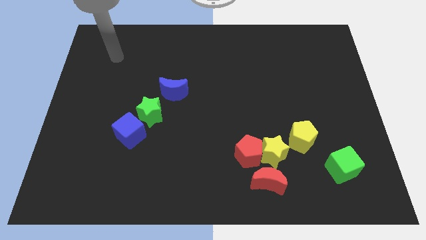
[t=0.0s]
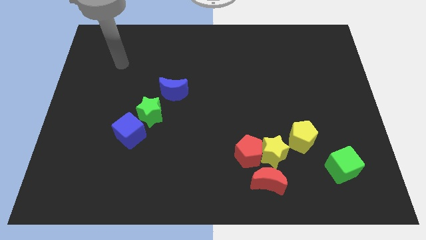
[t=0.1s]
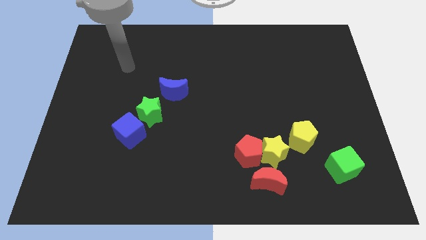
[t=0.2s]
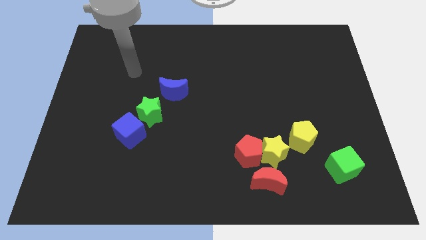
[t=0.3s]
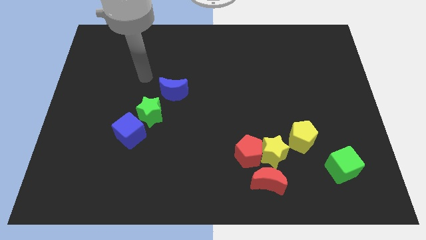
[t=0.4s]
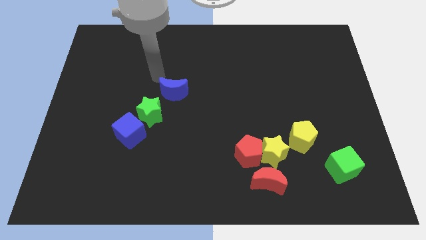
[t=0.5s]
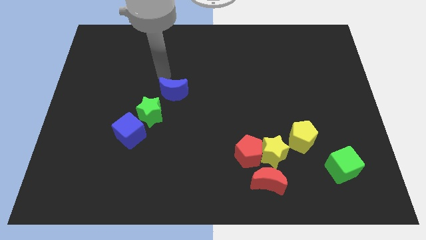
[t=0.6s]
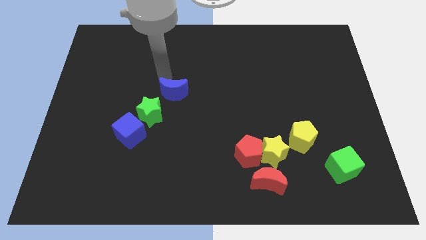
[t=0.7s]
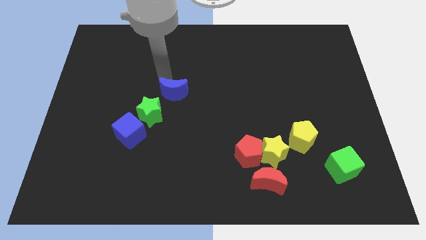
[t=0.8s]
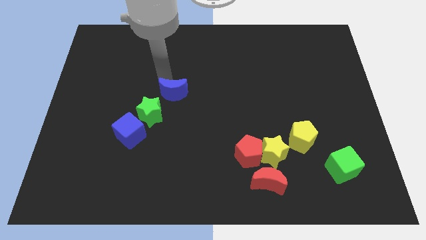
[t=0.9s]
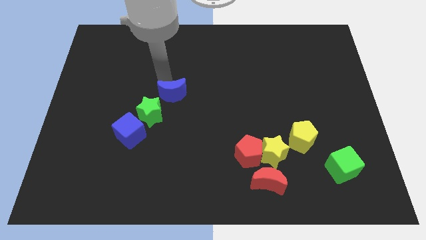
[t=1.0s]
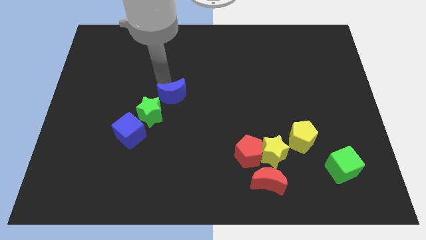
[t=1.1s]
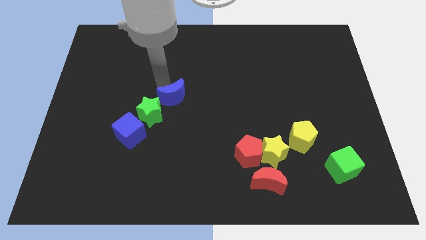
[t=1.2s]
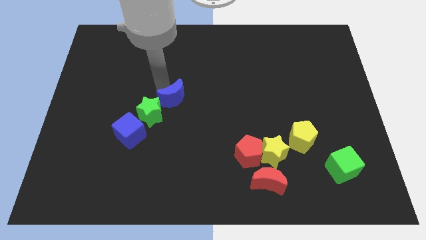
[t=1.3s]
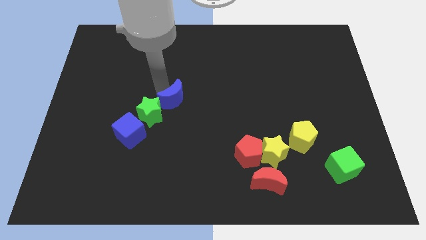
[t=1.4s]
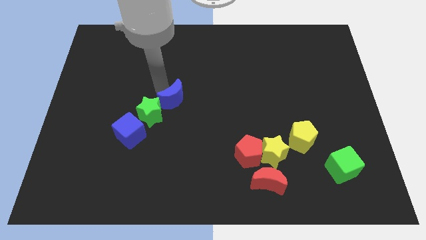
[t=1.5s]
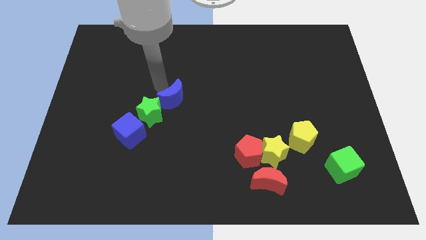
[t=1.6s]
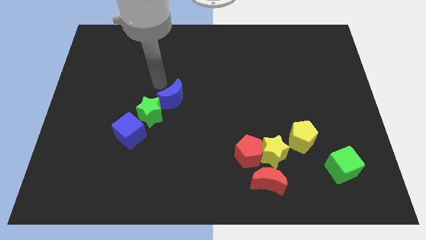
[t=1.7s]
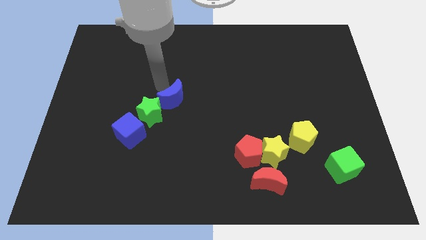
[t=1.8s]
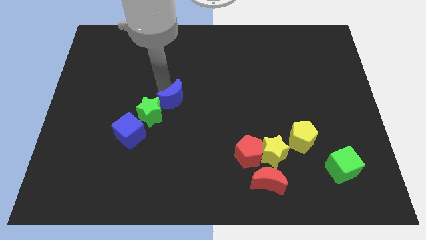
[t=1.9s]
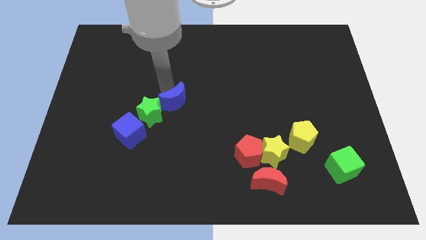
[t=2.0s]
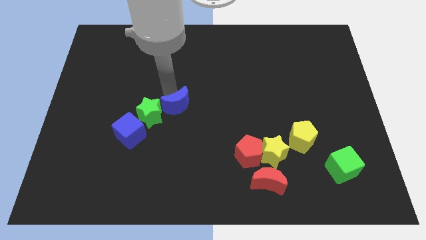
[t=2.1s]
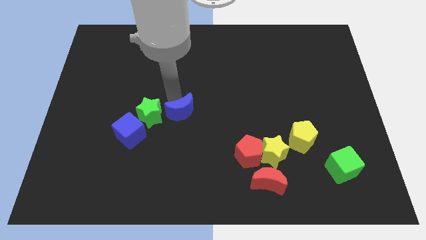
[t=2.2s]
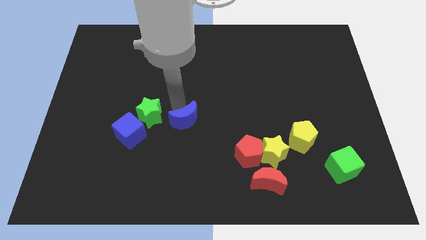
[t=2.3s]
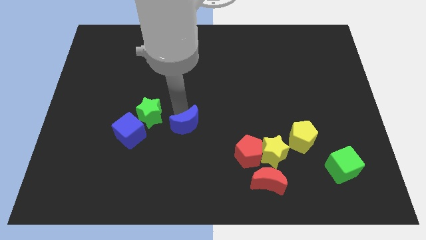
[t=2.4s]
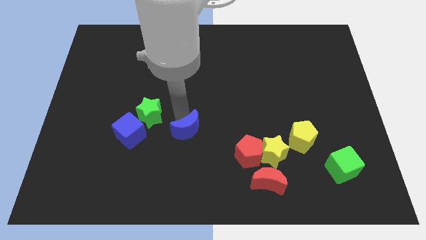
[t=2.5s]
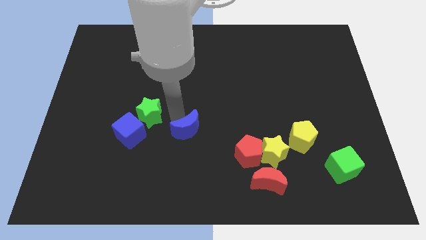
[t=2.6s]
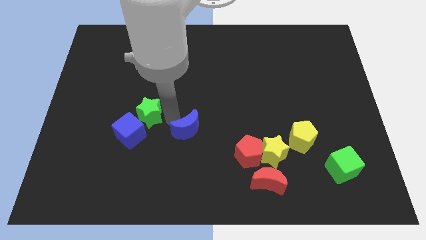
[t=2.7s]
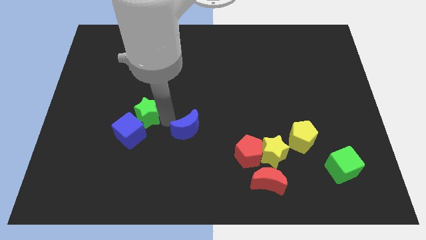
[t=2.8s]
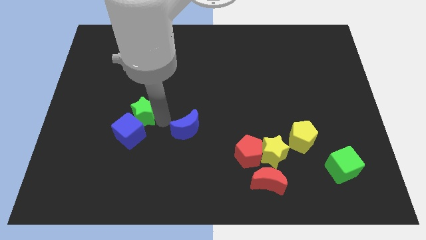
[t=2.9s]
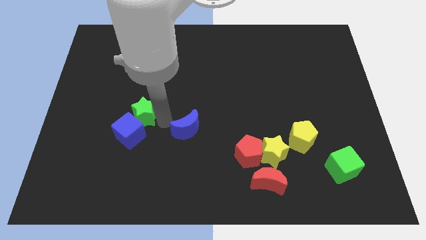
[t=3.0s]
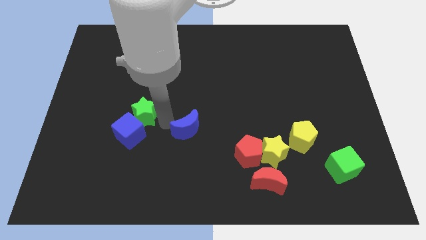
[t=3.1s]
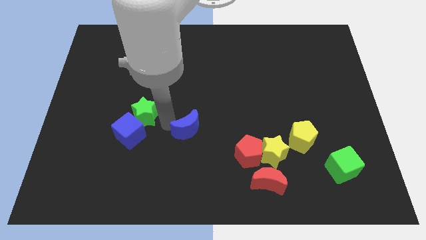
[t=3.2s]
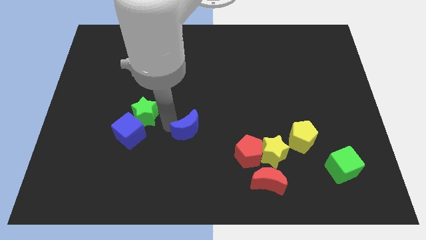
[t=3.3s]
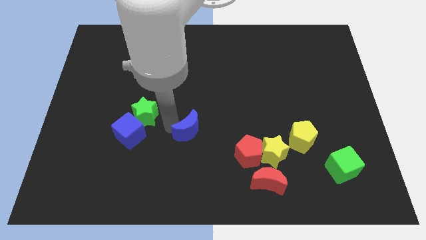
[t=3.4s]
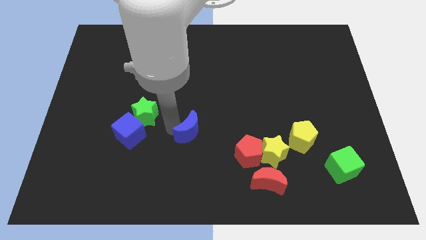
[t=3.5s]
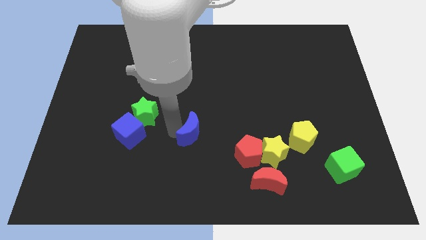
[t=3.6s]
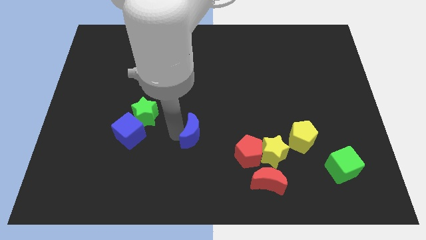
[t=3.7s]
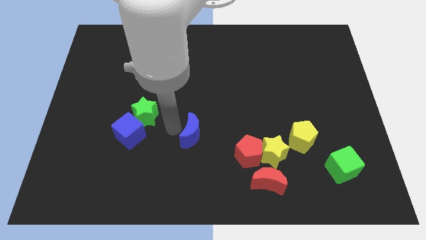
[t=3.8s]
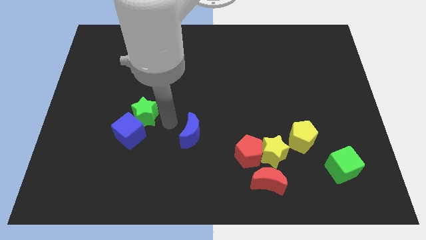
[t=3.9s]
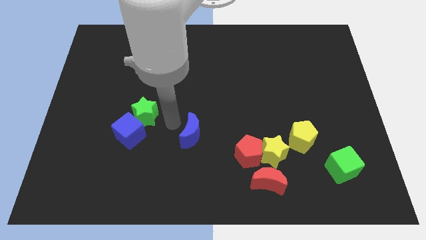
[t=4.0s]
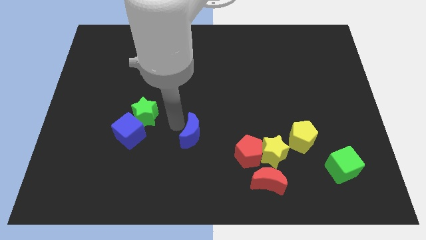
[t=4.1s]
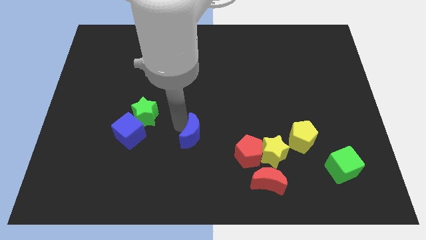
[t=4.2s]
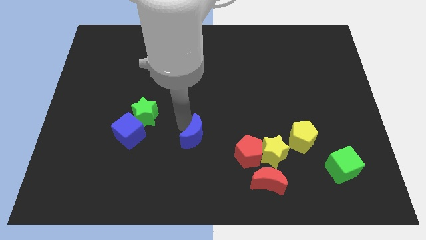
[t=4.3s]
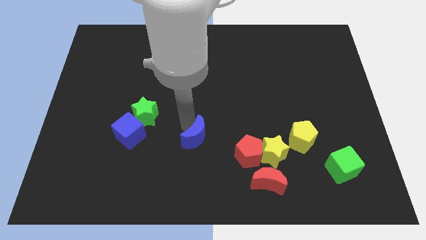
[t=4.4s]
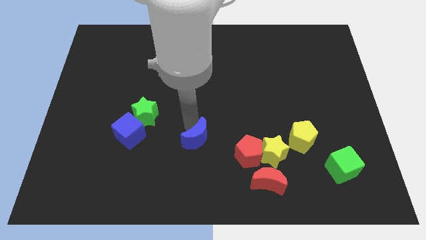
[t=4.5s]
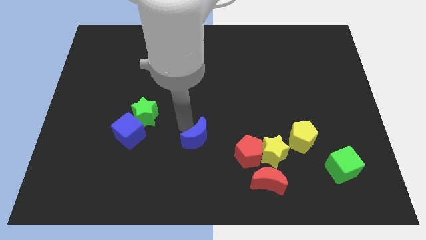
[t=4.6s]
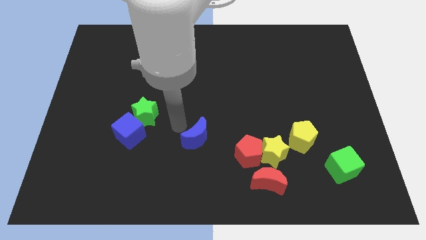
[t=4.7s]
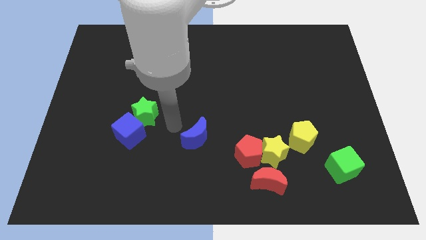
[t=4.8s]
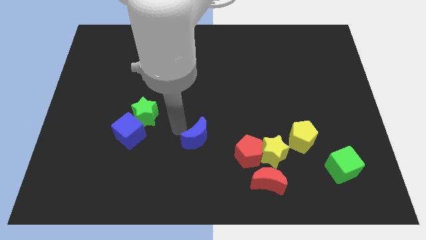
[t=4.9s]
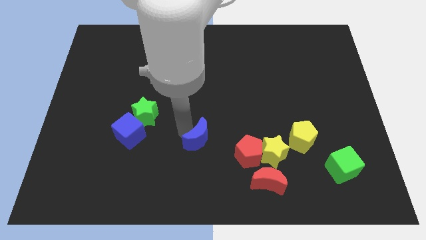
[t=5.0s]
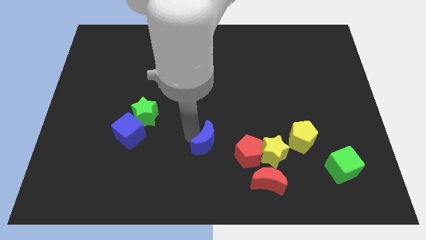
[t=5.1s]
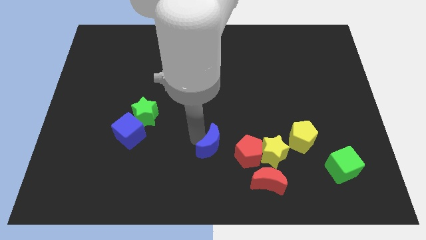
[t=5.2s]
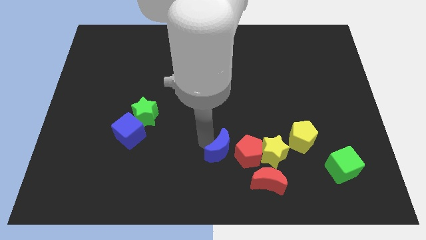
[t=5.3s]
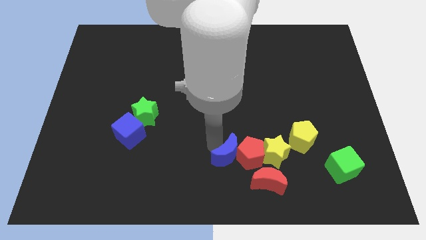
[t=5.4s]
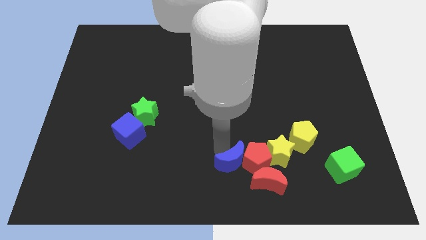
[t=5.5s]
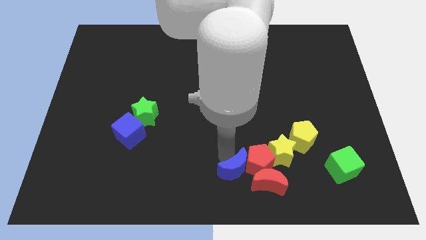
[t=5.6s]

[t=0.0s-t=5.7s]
put the blue moon diagonally down and to the left of the yellow star

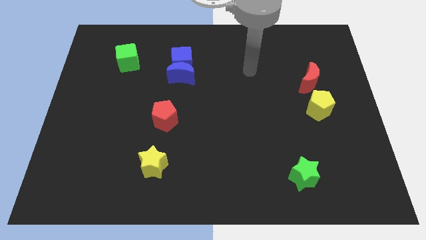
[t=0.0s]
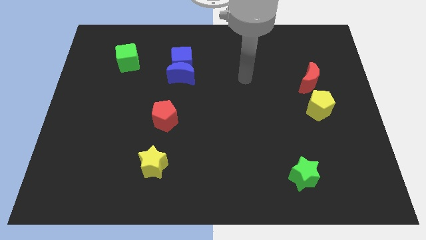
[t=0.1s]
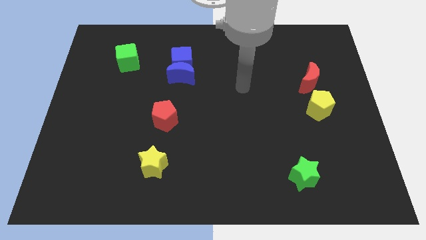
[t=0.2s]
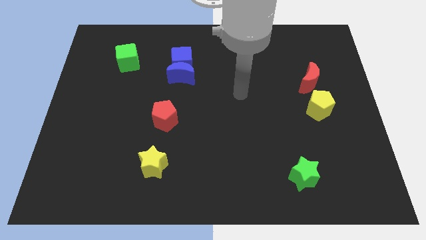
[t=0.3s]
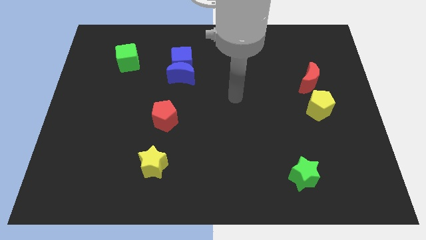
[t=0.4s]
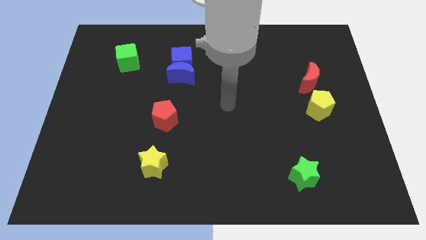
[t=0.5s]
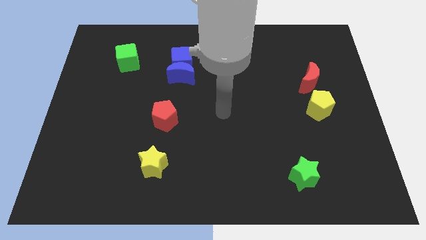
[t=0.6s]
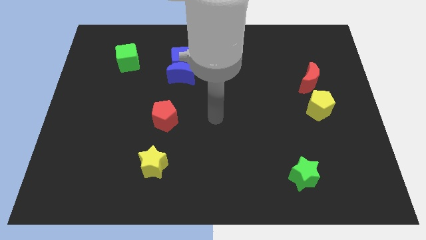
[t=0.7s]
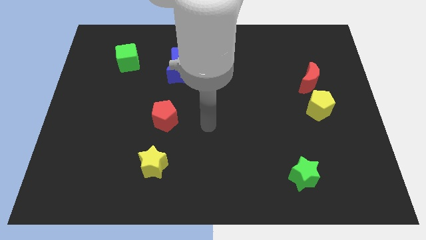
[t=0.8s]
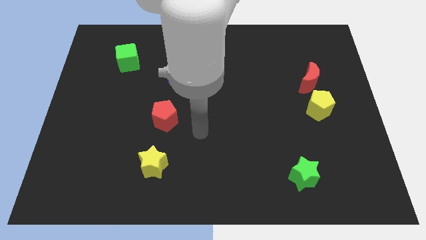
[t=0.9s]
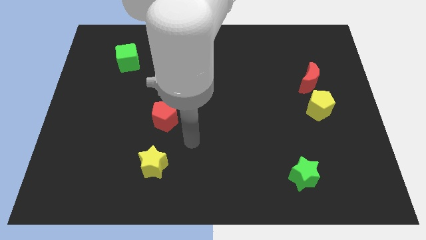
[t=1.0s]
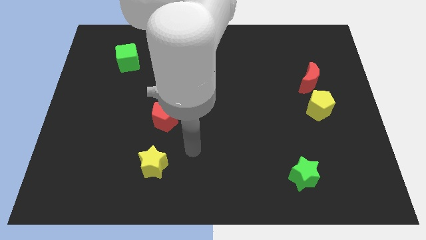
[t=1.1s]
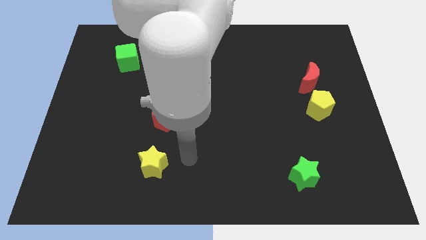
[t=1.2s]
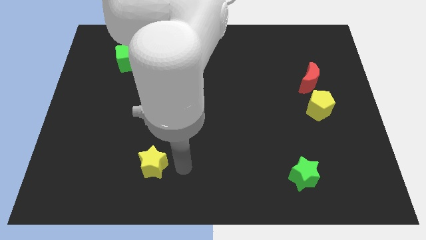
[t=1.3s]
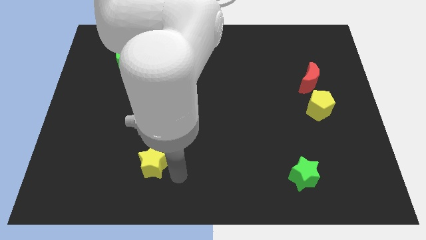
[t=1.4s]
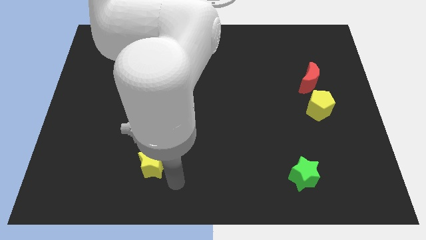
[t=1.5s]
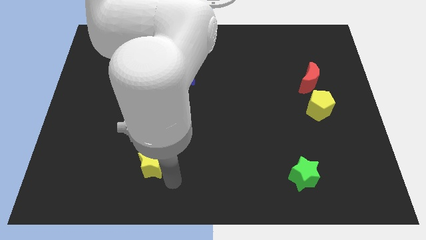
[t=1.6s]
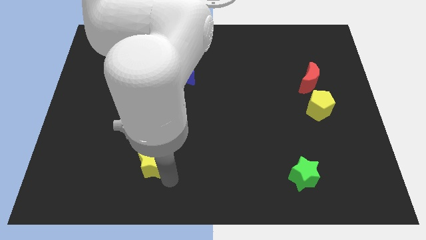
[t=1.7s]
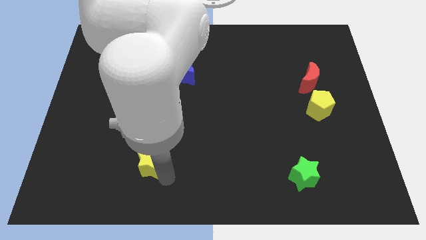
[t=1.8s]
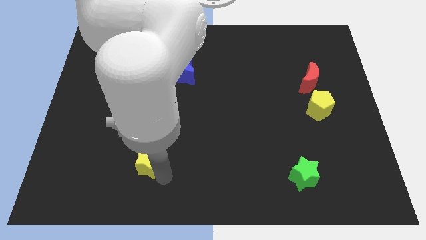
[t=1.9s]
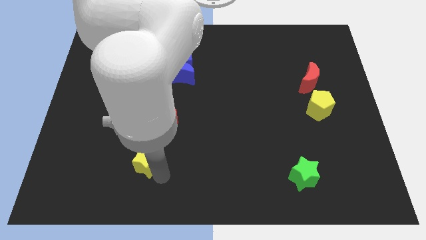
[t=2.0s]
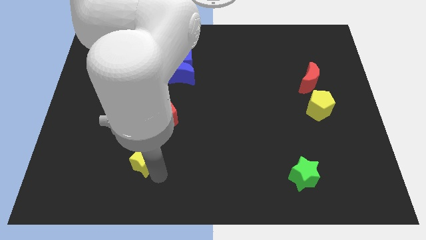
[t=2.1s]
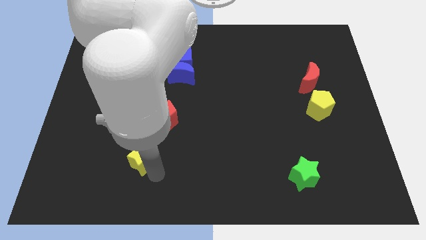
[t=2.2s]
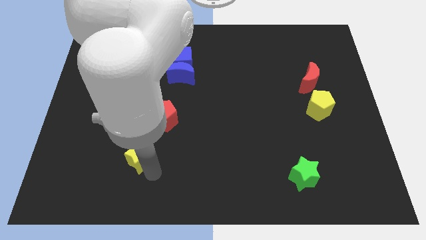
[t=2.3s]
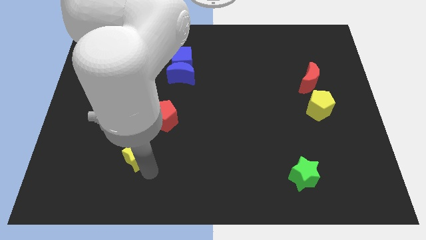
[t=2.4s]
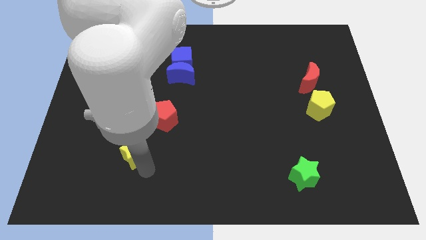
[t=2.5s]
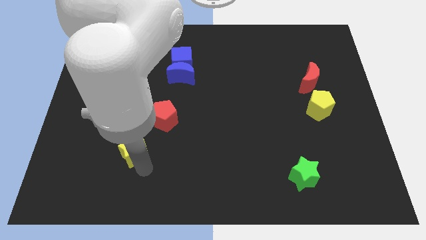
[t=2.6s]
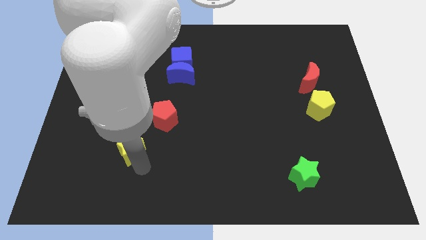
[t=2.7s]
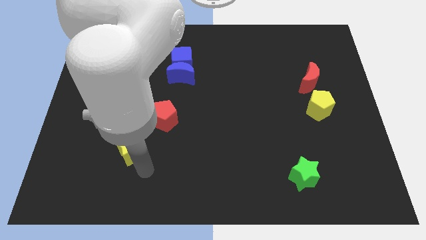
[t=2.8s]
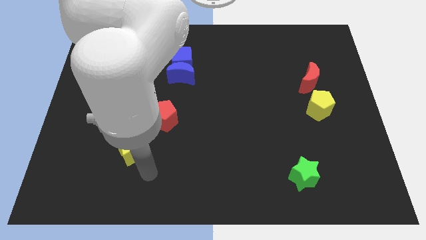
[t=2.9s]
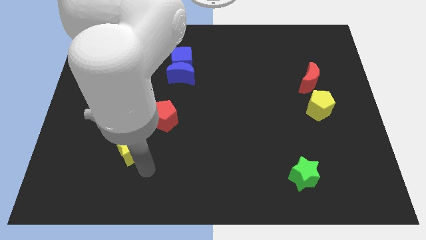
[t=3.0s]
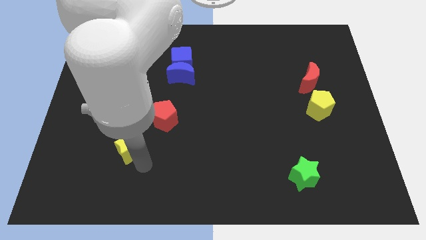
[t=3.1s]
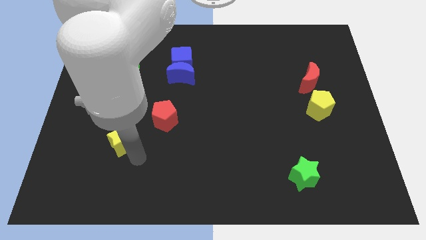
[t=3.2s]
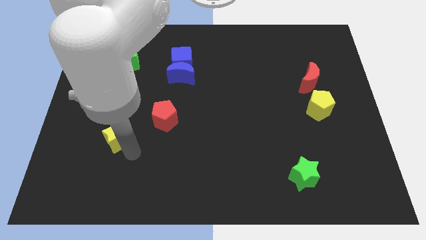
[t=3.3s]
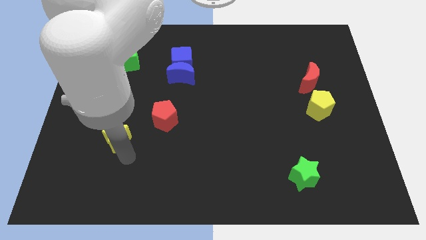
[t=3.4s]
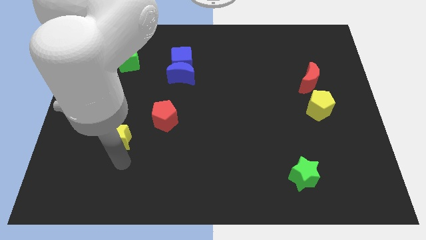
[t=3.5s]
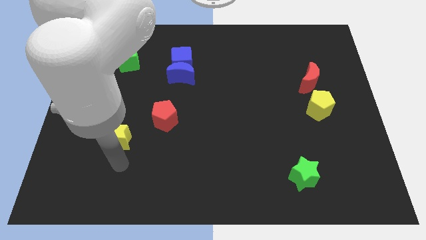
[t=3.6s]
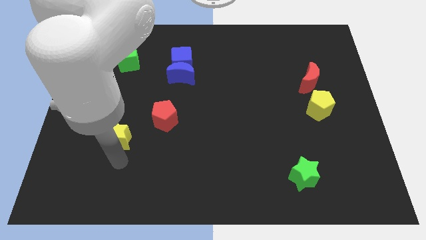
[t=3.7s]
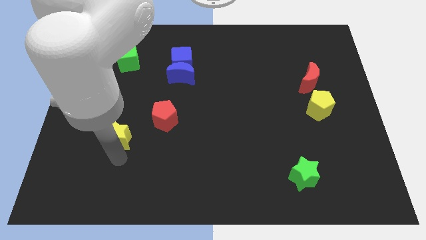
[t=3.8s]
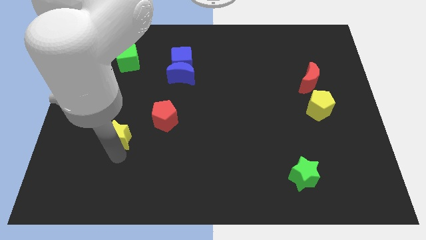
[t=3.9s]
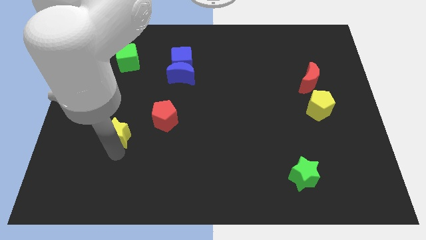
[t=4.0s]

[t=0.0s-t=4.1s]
push the yellow star left of the red pentagon
